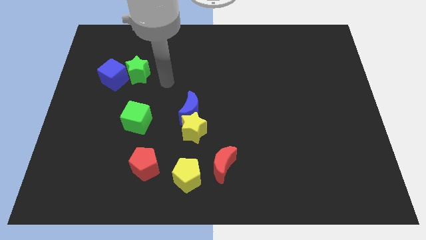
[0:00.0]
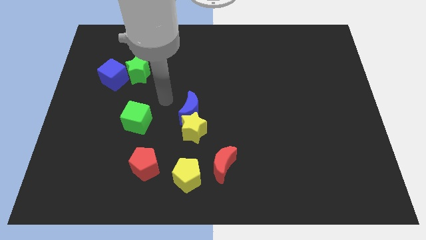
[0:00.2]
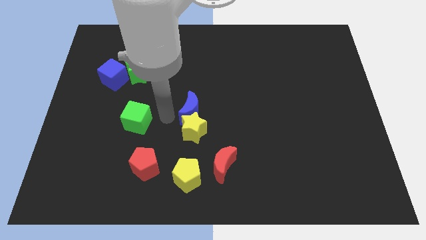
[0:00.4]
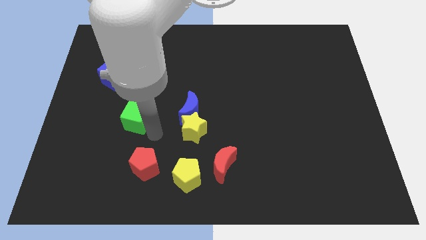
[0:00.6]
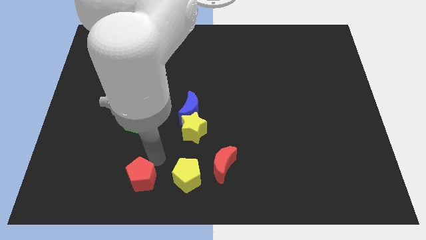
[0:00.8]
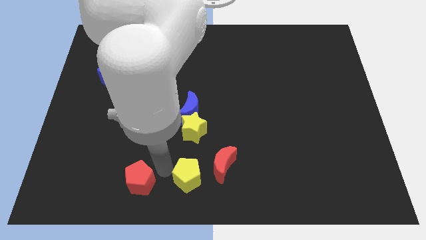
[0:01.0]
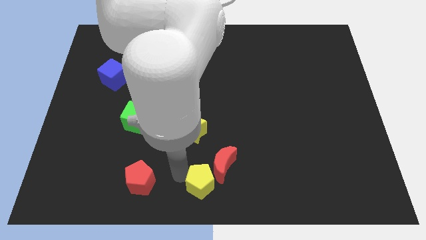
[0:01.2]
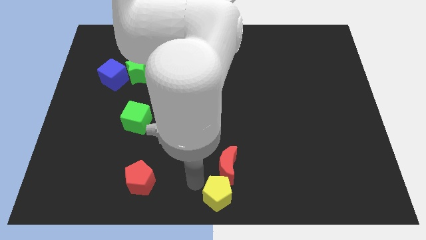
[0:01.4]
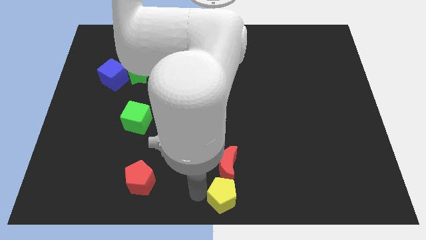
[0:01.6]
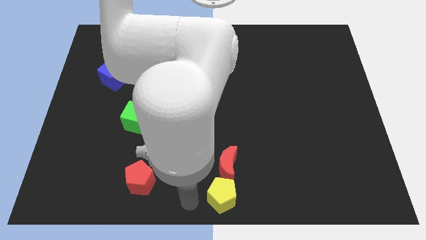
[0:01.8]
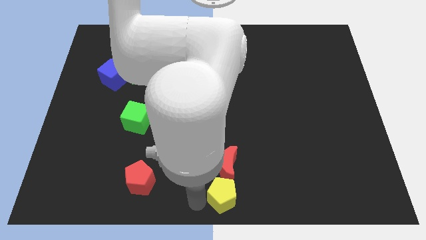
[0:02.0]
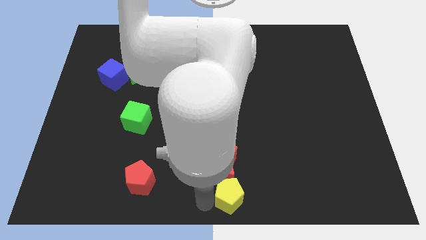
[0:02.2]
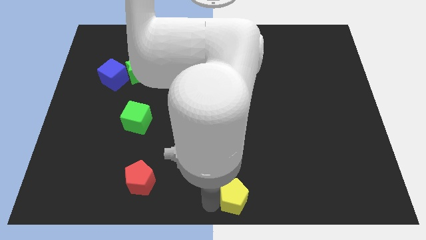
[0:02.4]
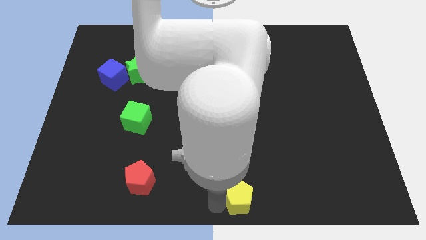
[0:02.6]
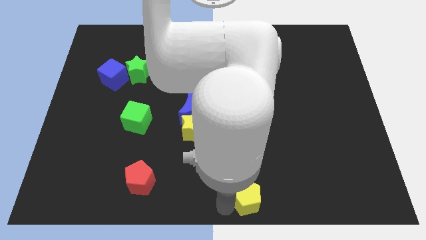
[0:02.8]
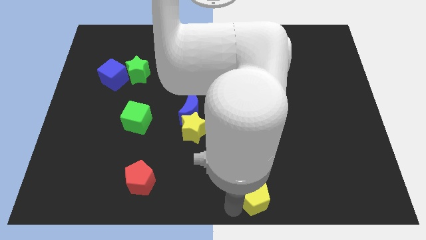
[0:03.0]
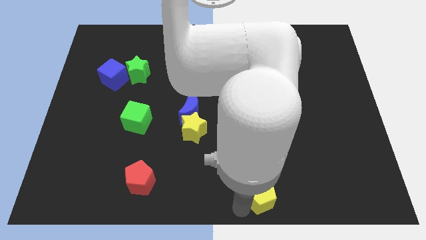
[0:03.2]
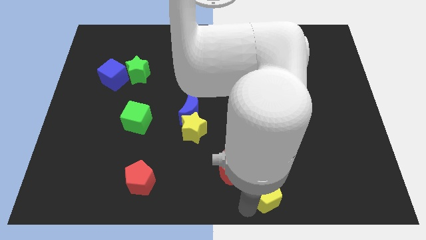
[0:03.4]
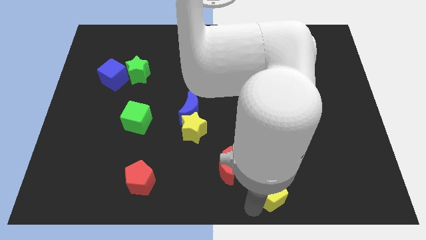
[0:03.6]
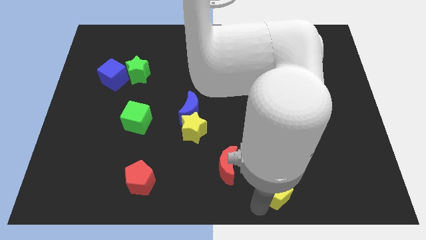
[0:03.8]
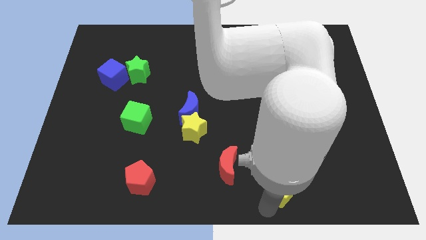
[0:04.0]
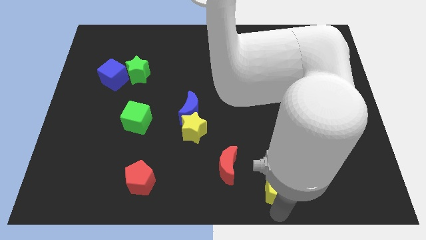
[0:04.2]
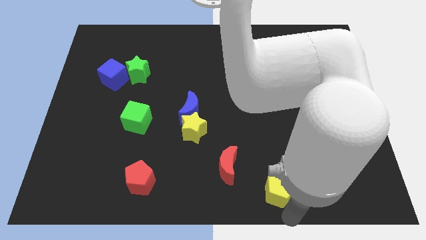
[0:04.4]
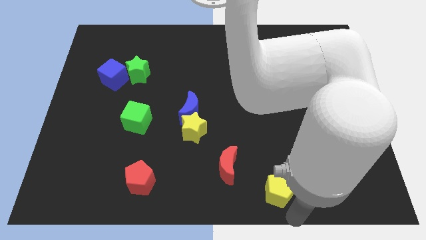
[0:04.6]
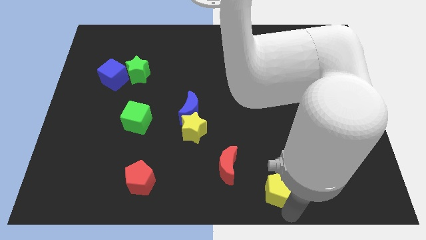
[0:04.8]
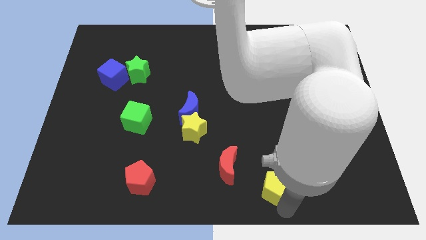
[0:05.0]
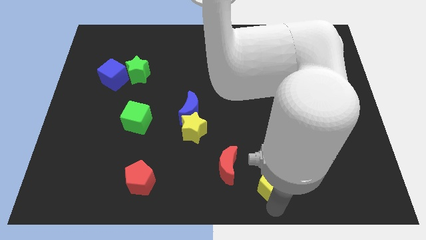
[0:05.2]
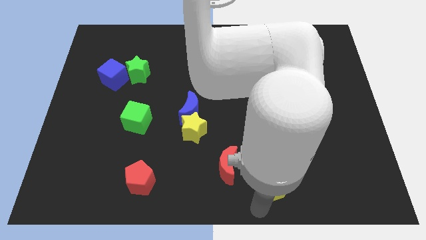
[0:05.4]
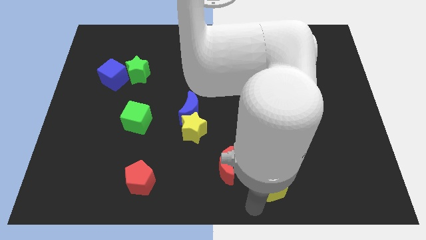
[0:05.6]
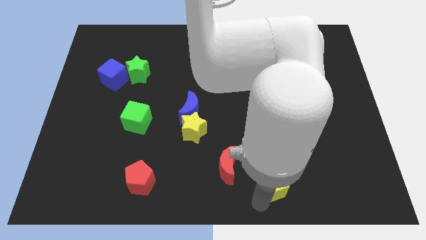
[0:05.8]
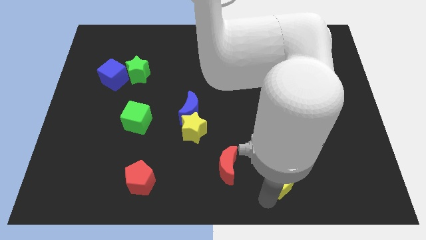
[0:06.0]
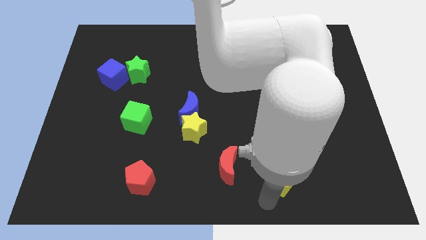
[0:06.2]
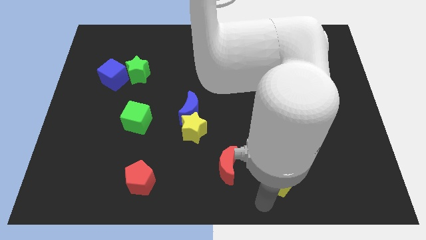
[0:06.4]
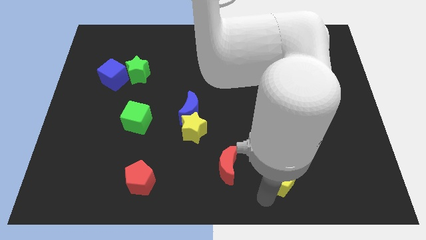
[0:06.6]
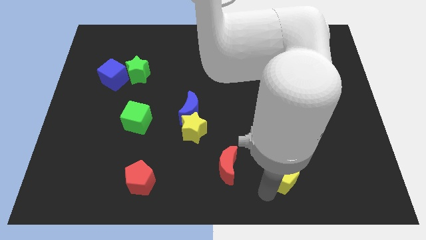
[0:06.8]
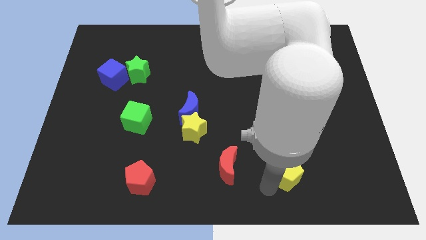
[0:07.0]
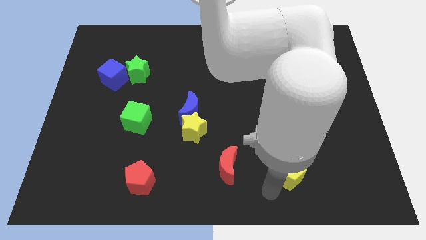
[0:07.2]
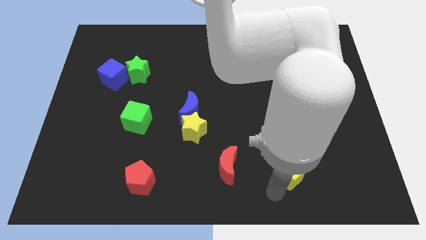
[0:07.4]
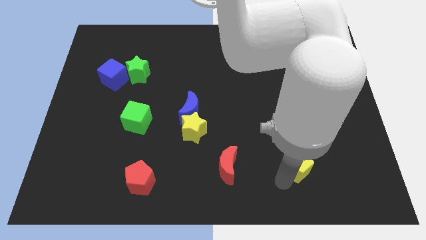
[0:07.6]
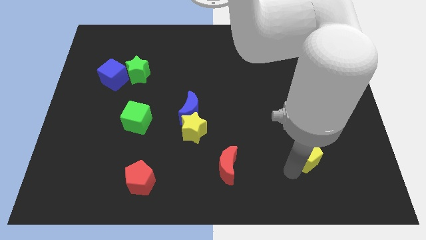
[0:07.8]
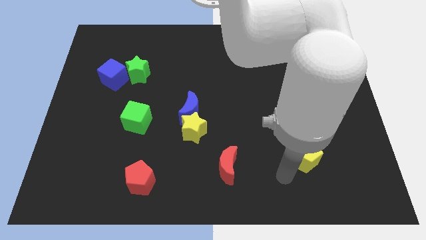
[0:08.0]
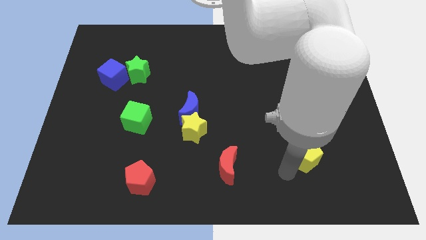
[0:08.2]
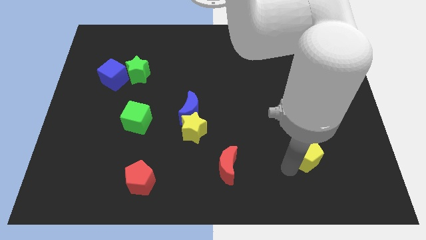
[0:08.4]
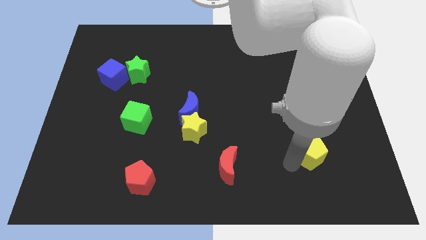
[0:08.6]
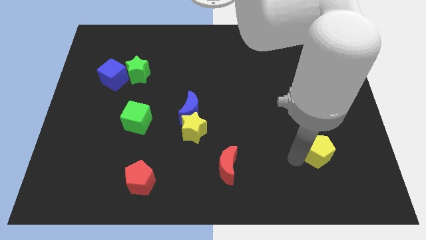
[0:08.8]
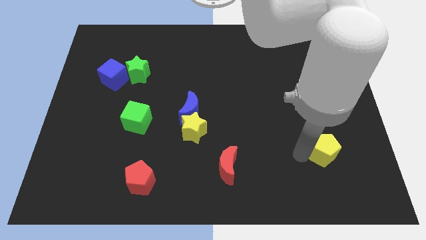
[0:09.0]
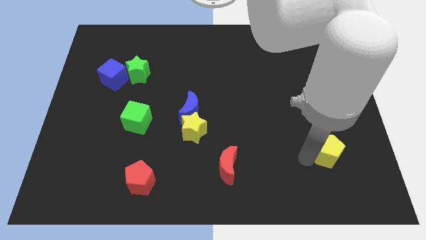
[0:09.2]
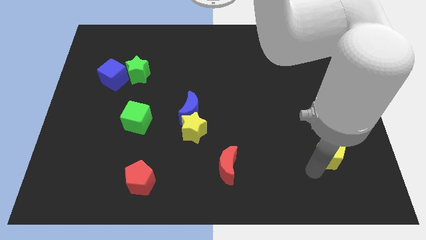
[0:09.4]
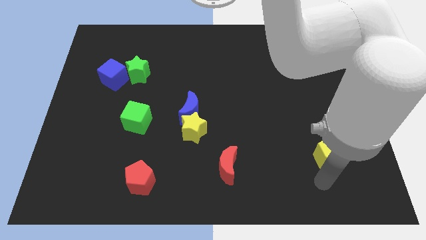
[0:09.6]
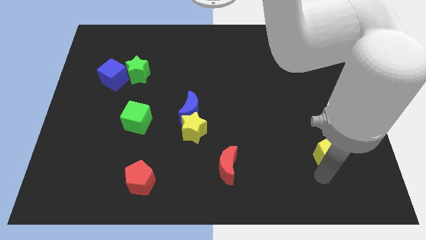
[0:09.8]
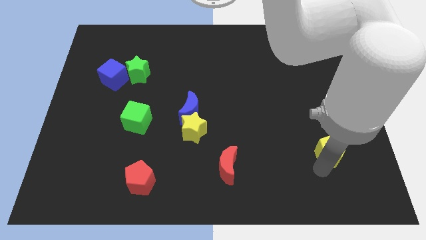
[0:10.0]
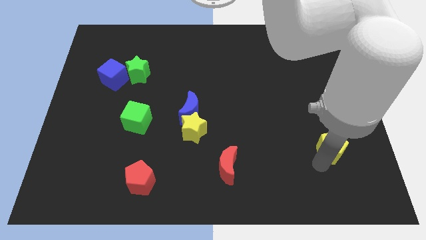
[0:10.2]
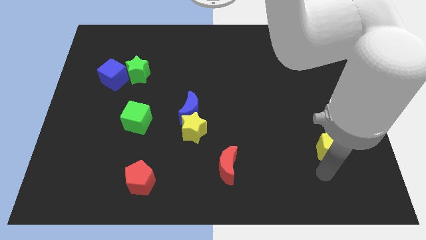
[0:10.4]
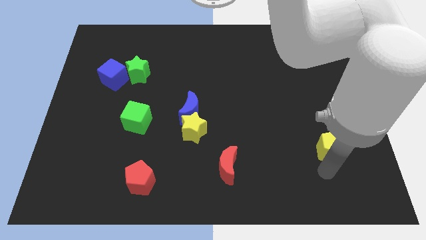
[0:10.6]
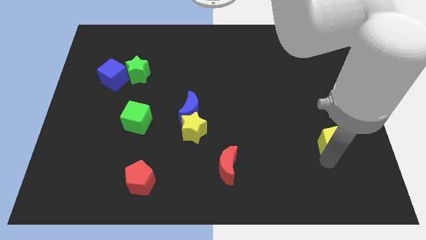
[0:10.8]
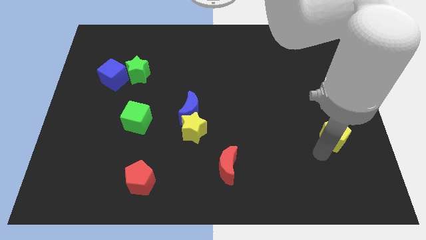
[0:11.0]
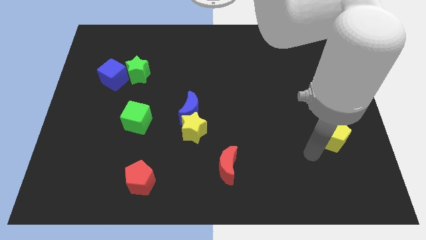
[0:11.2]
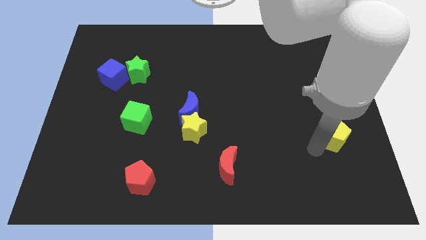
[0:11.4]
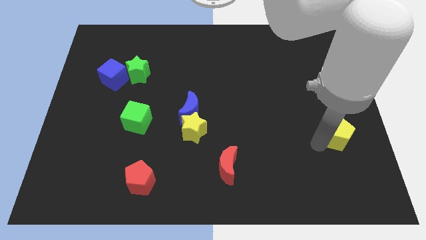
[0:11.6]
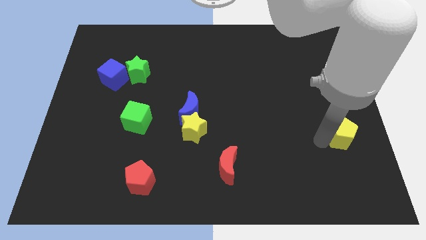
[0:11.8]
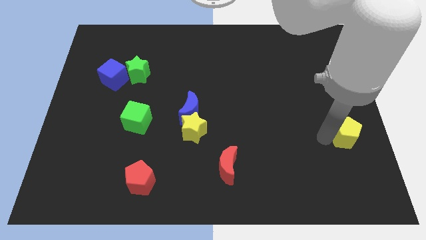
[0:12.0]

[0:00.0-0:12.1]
put the yellow pentagon to the right side
